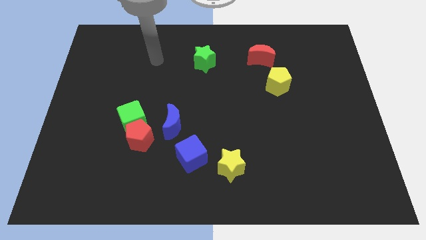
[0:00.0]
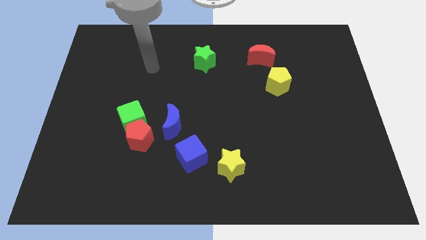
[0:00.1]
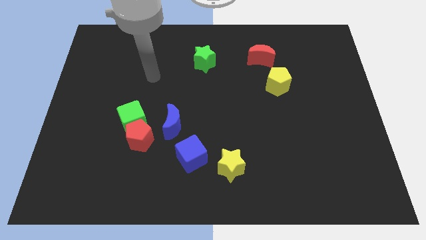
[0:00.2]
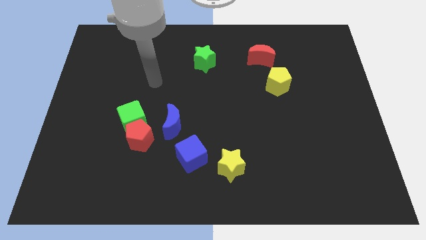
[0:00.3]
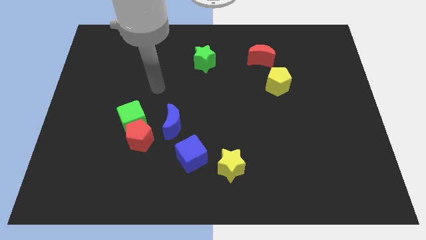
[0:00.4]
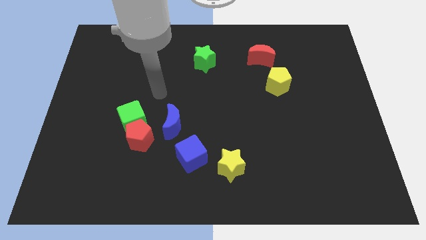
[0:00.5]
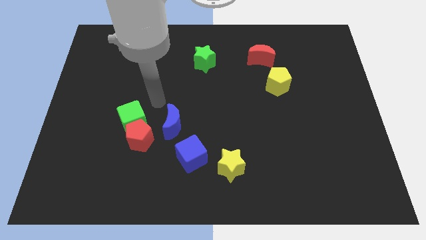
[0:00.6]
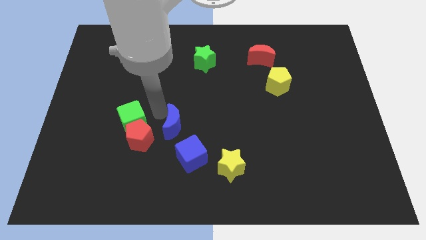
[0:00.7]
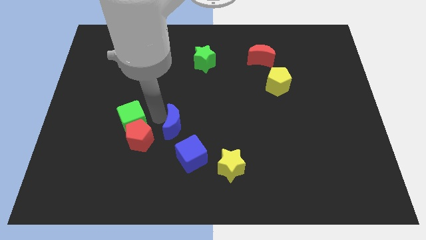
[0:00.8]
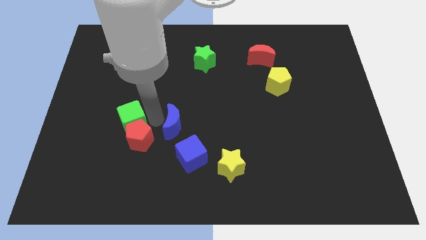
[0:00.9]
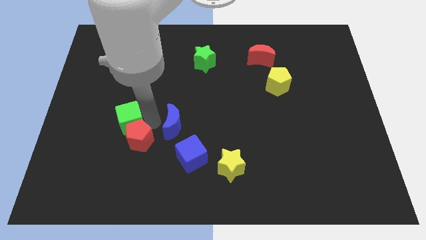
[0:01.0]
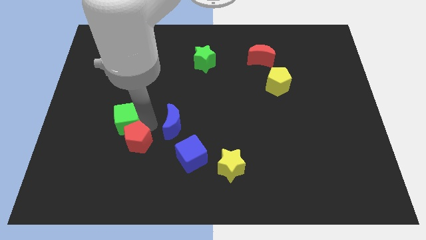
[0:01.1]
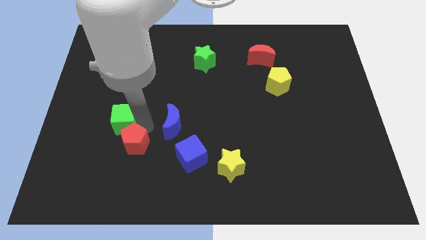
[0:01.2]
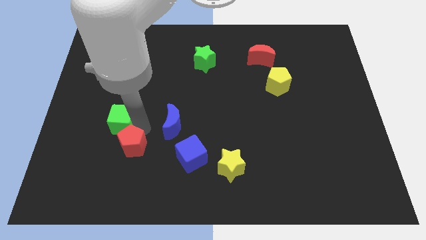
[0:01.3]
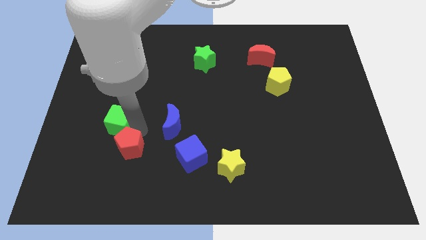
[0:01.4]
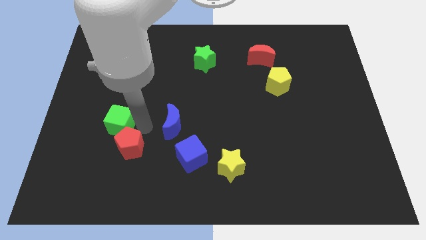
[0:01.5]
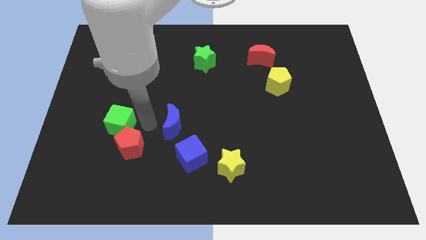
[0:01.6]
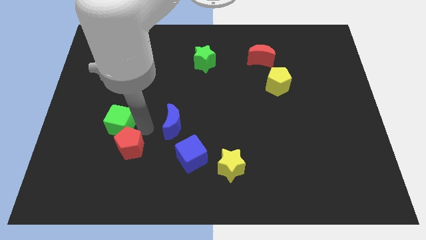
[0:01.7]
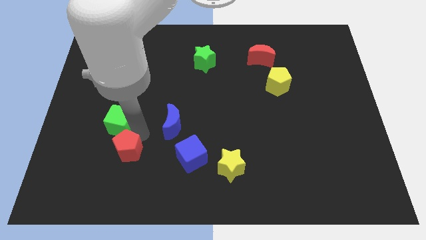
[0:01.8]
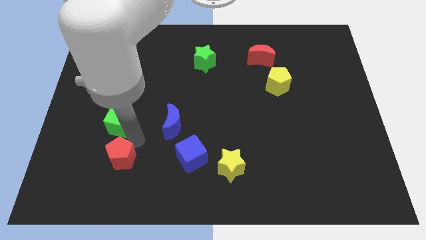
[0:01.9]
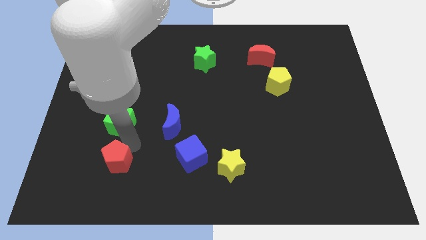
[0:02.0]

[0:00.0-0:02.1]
separate the red pentagon from the green cube and blue moon

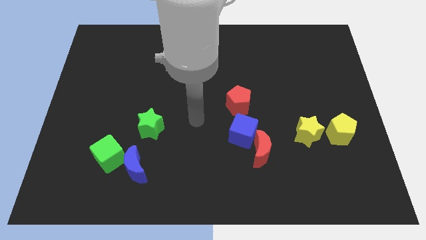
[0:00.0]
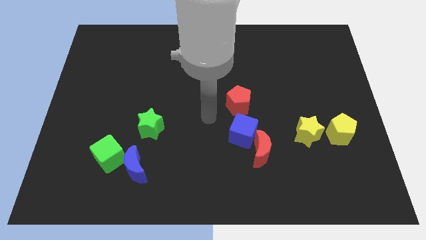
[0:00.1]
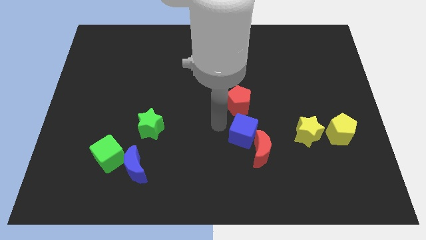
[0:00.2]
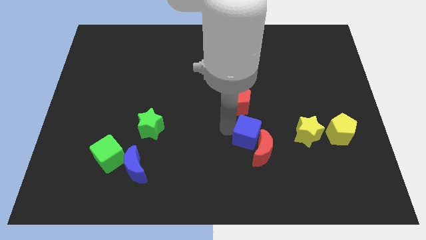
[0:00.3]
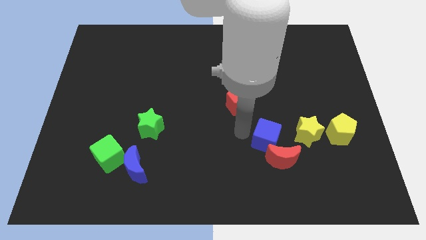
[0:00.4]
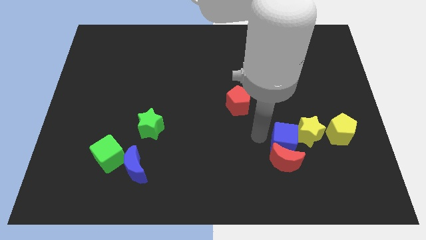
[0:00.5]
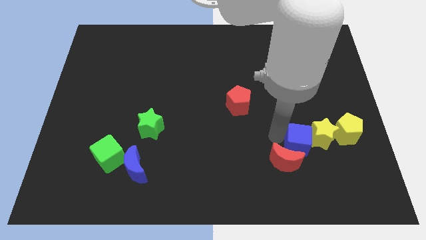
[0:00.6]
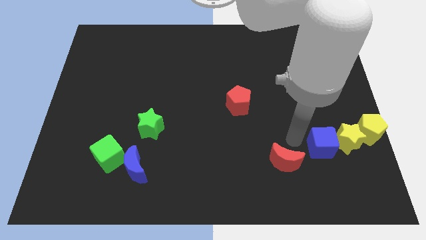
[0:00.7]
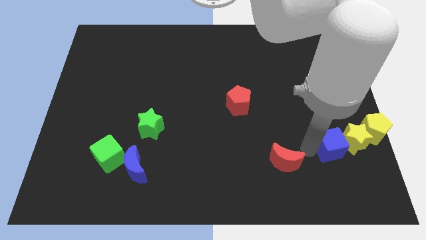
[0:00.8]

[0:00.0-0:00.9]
pull the red moon apart from the blue cube

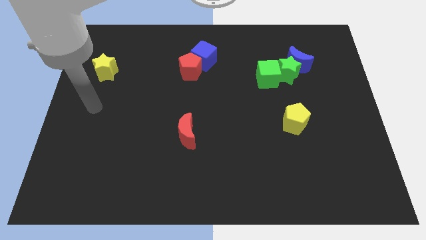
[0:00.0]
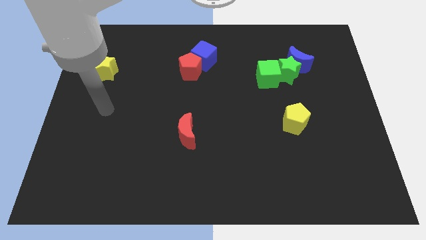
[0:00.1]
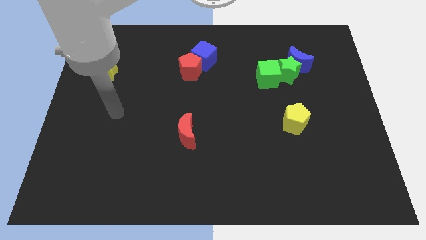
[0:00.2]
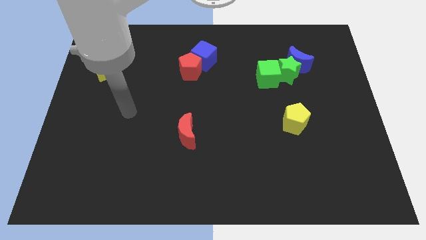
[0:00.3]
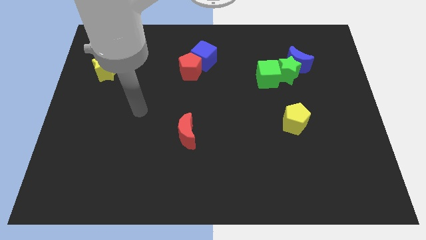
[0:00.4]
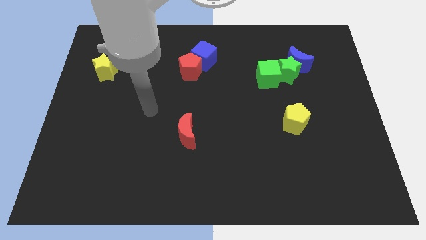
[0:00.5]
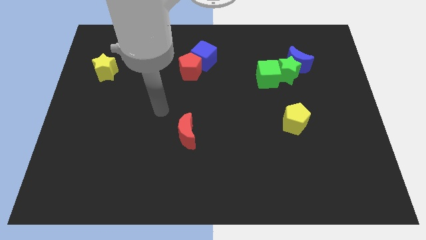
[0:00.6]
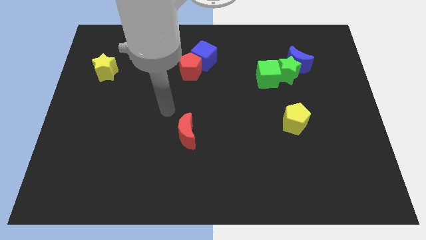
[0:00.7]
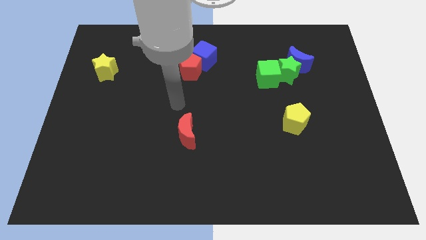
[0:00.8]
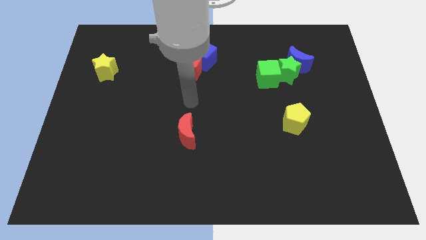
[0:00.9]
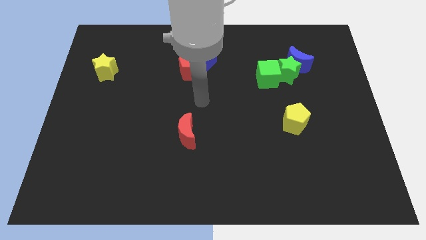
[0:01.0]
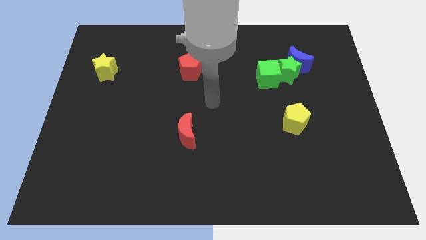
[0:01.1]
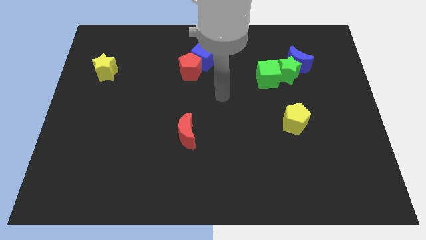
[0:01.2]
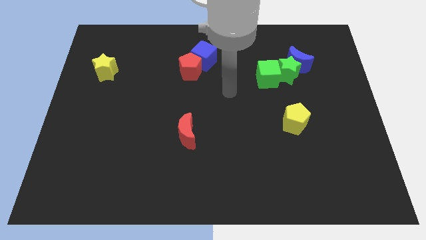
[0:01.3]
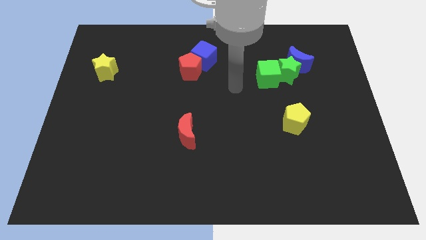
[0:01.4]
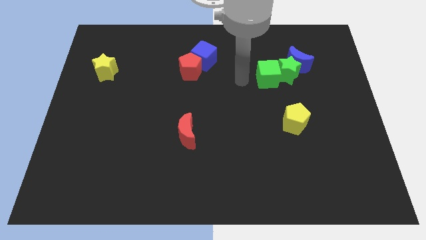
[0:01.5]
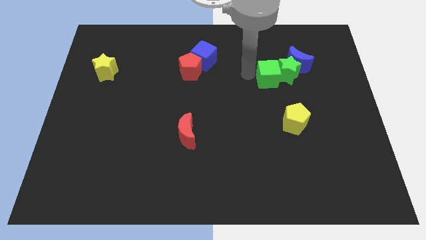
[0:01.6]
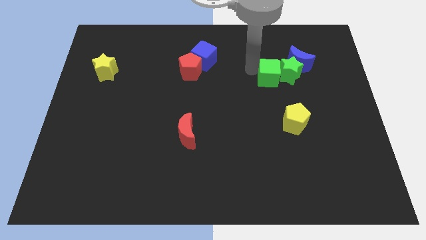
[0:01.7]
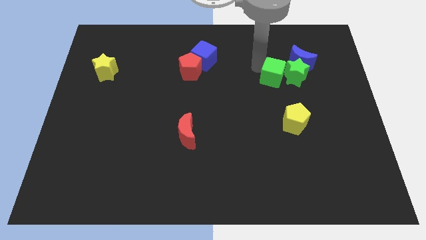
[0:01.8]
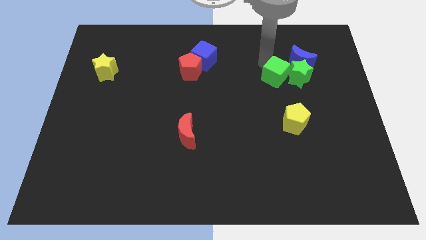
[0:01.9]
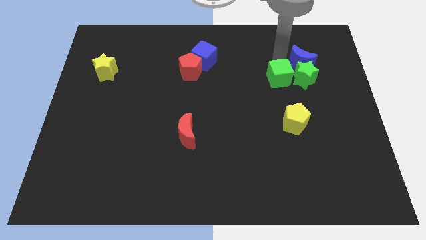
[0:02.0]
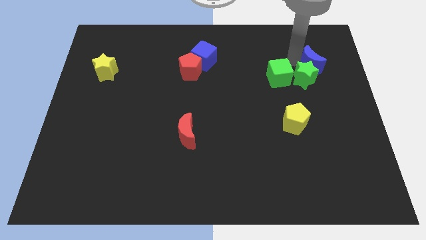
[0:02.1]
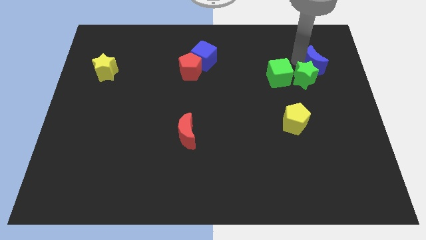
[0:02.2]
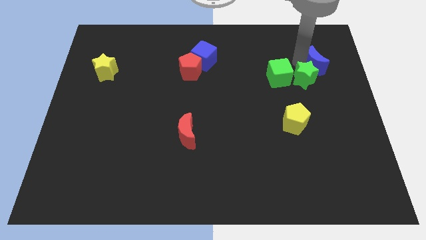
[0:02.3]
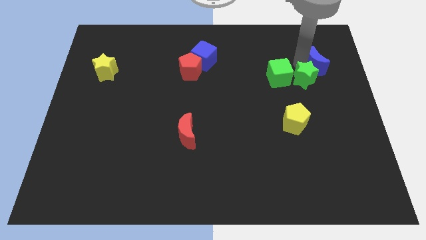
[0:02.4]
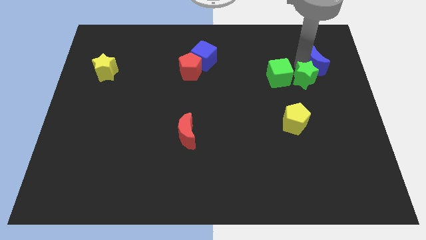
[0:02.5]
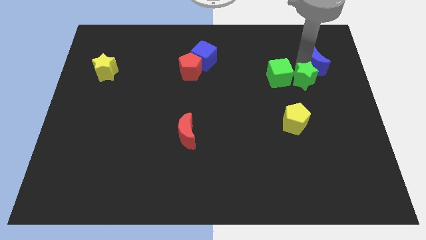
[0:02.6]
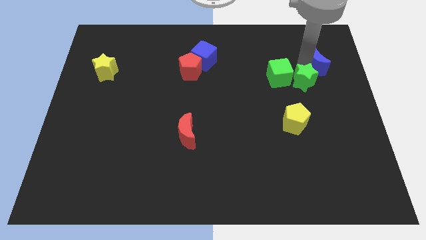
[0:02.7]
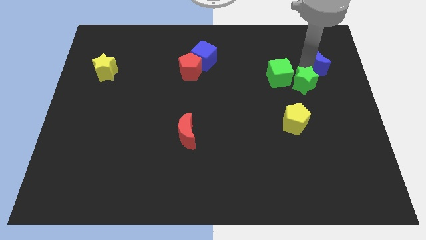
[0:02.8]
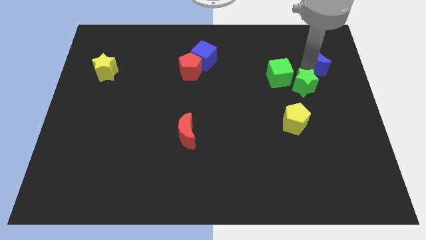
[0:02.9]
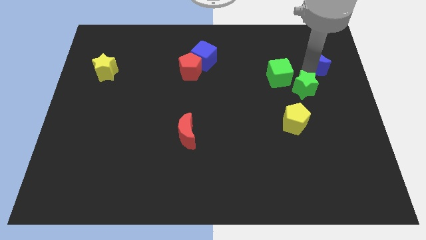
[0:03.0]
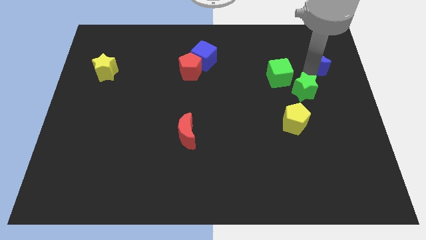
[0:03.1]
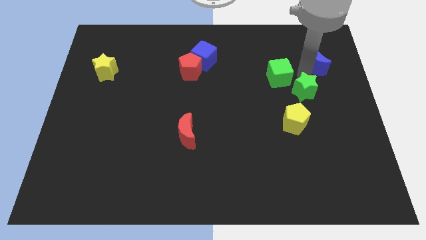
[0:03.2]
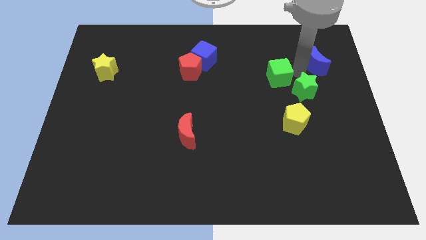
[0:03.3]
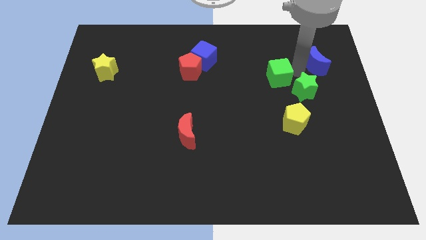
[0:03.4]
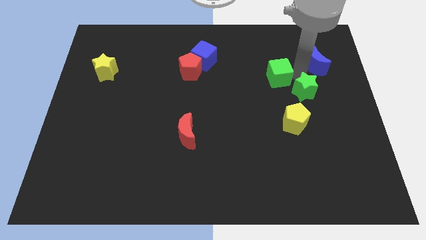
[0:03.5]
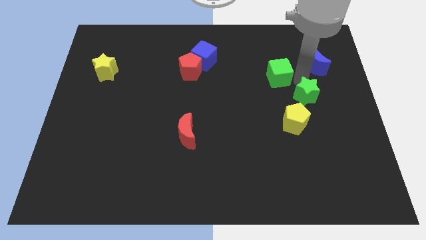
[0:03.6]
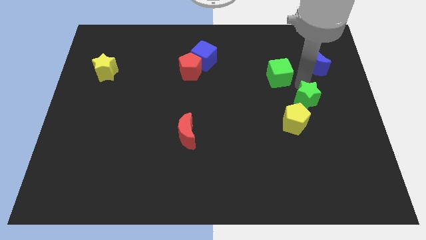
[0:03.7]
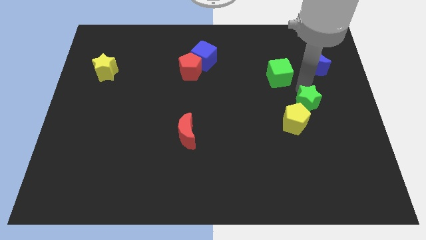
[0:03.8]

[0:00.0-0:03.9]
pull the green star apart from the blue moon and green cube

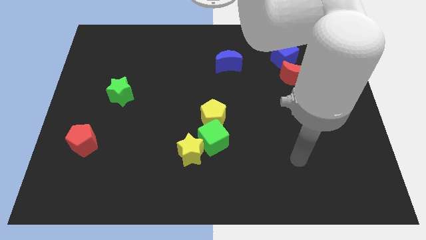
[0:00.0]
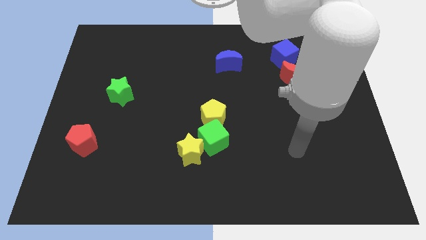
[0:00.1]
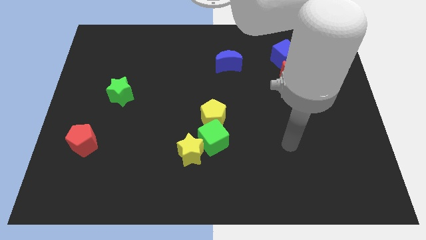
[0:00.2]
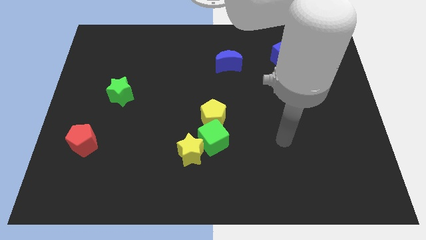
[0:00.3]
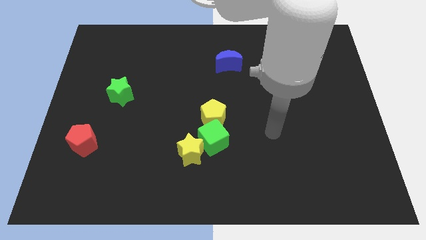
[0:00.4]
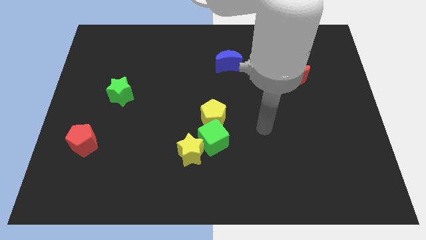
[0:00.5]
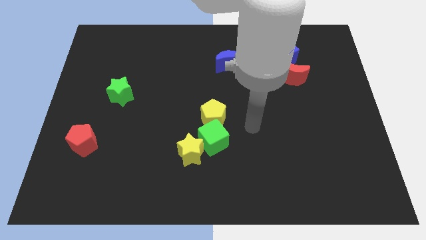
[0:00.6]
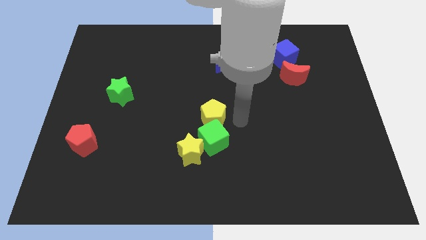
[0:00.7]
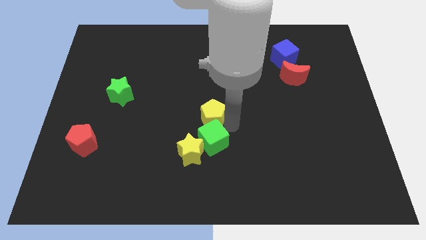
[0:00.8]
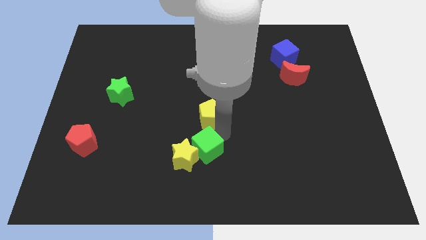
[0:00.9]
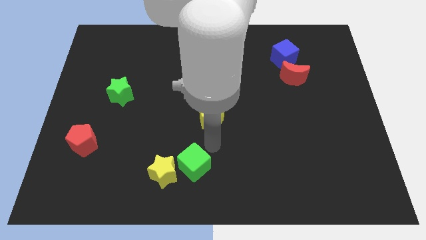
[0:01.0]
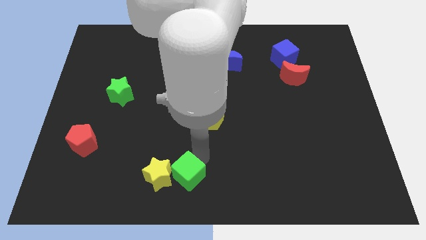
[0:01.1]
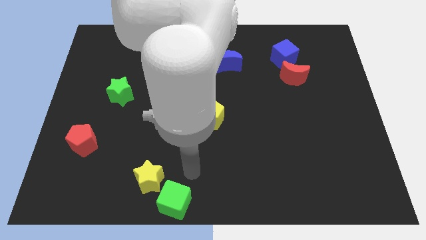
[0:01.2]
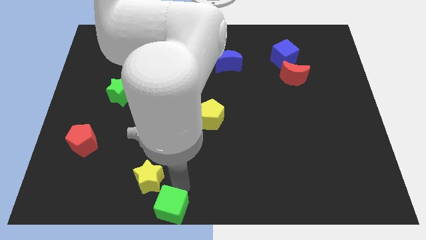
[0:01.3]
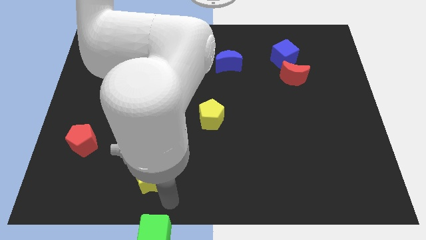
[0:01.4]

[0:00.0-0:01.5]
move the yellow star away from the green cube

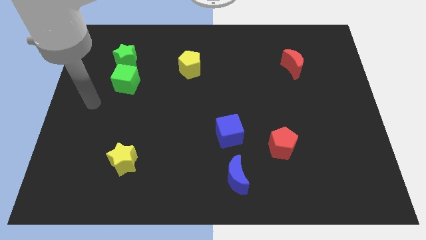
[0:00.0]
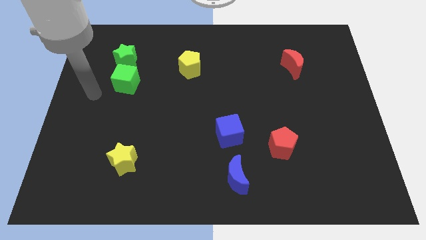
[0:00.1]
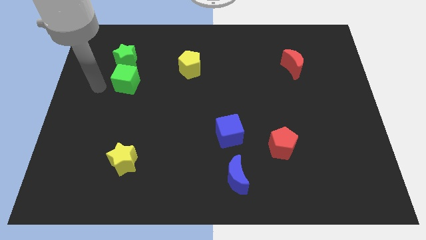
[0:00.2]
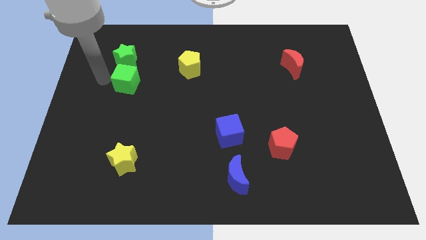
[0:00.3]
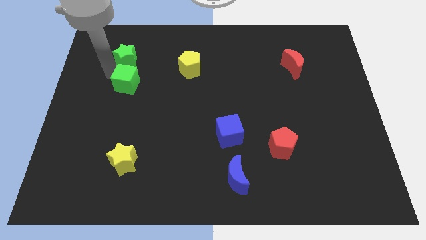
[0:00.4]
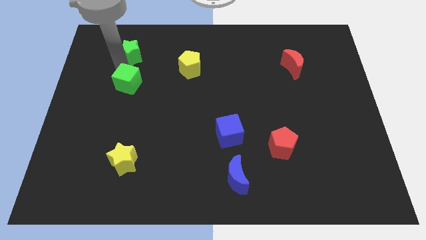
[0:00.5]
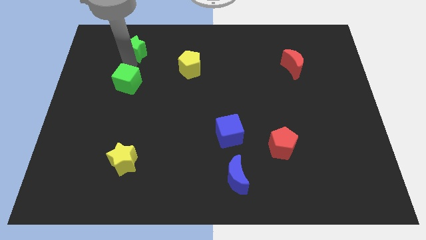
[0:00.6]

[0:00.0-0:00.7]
pull the green cube apart from the green star

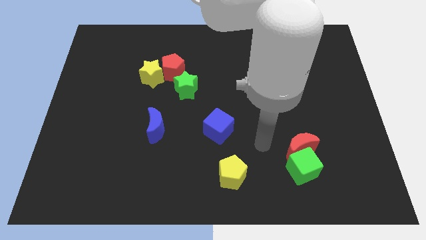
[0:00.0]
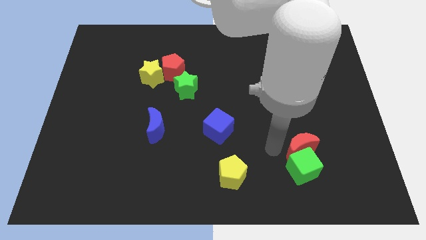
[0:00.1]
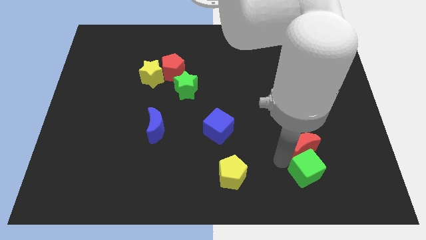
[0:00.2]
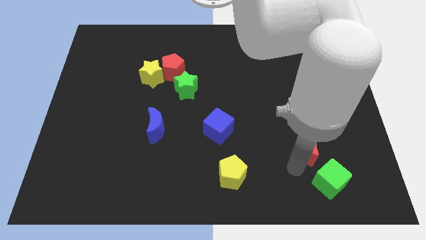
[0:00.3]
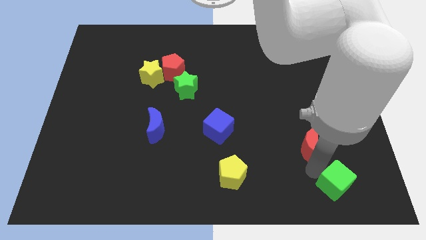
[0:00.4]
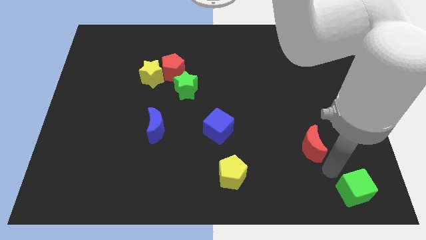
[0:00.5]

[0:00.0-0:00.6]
pull the red moon apart from the green cube
